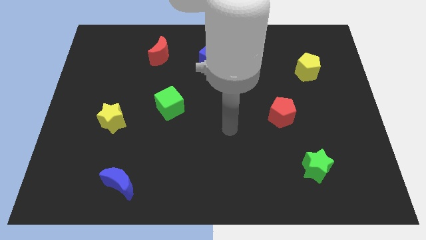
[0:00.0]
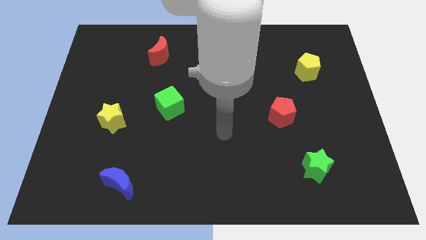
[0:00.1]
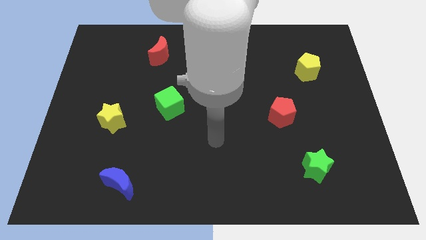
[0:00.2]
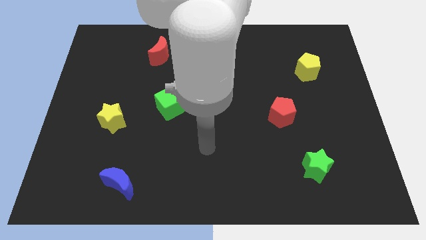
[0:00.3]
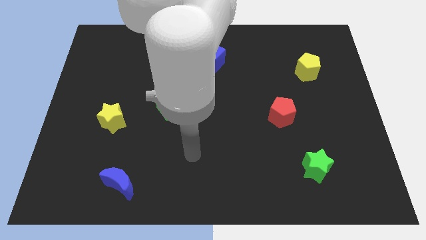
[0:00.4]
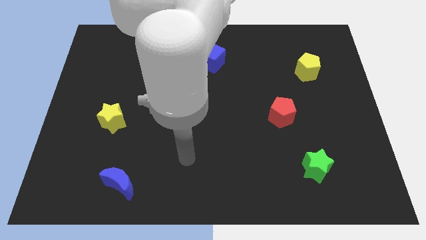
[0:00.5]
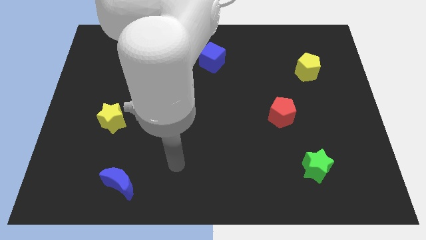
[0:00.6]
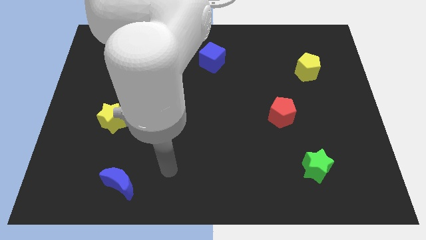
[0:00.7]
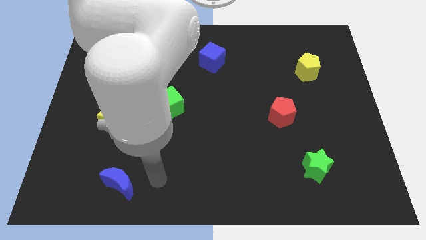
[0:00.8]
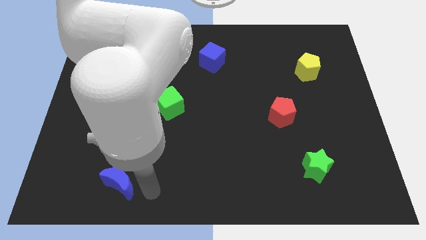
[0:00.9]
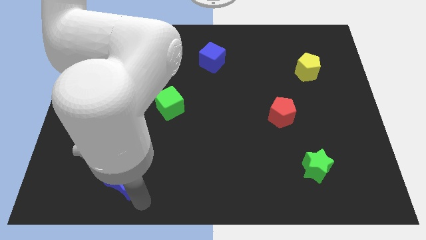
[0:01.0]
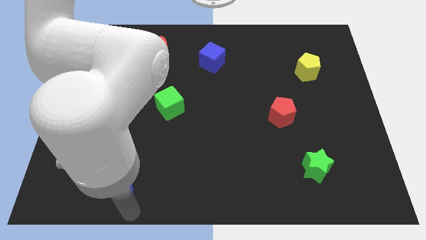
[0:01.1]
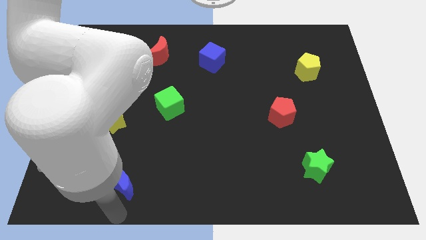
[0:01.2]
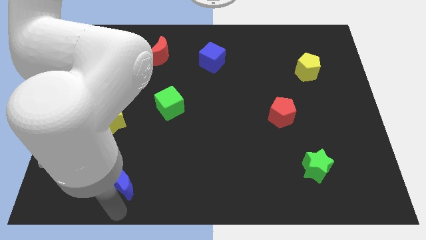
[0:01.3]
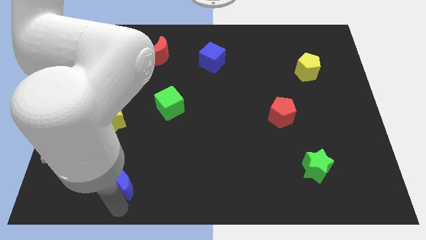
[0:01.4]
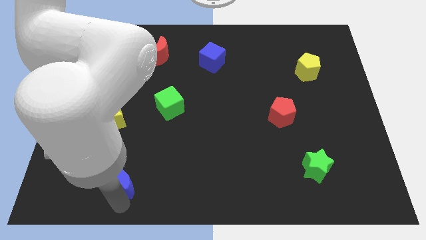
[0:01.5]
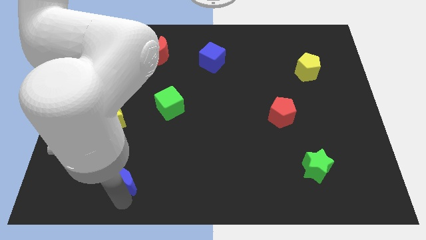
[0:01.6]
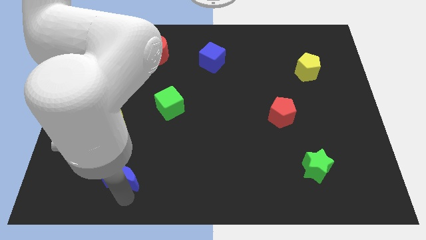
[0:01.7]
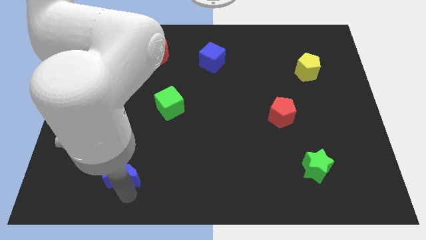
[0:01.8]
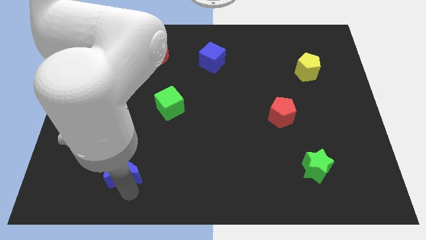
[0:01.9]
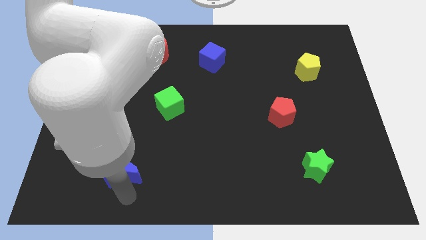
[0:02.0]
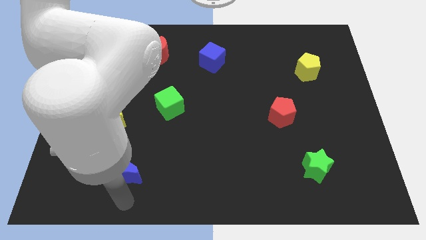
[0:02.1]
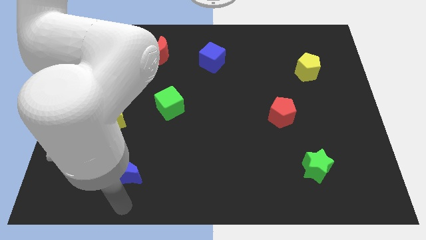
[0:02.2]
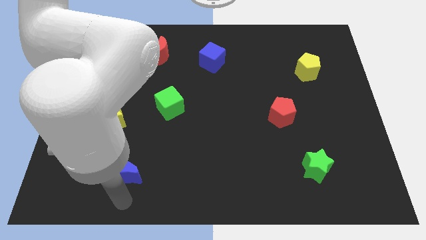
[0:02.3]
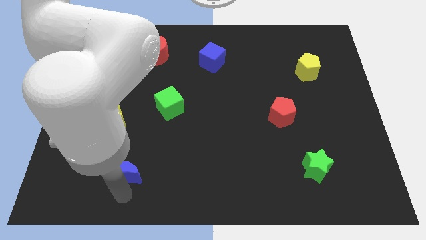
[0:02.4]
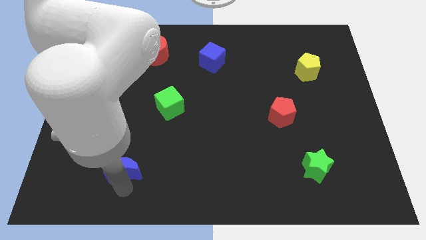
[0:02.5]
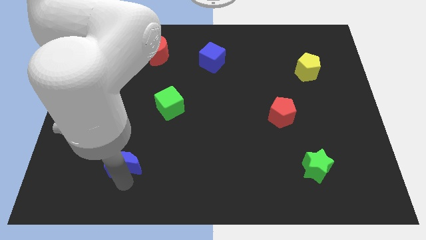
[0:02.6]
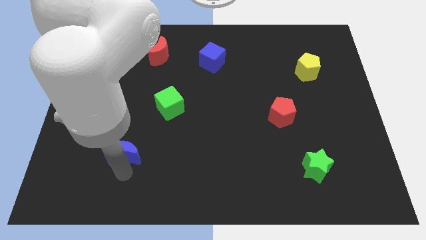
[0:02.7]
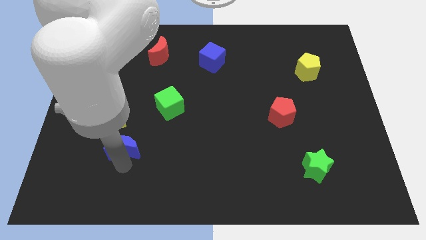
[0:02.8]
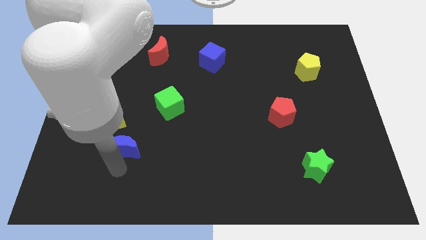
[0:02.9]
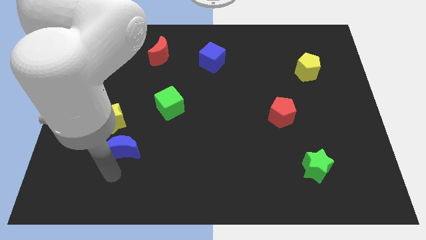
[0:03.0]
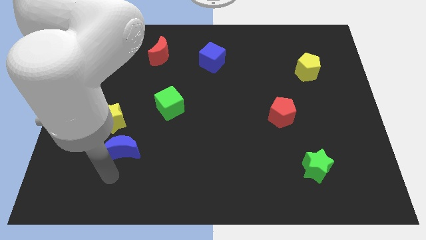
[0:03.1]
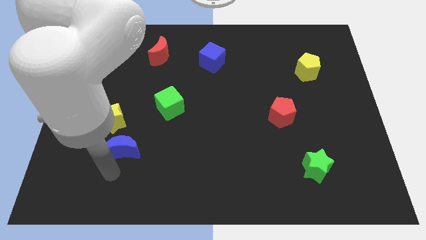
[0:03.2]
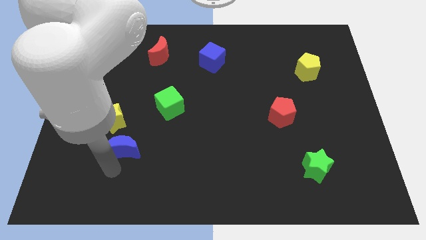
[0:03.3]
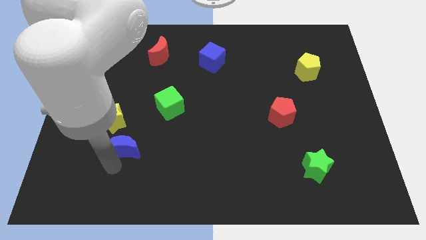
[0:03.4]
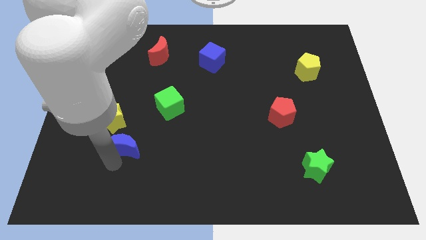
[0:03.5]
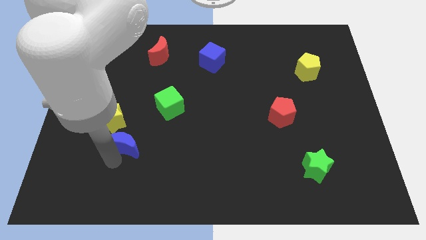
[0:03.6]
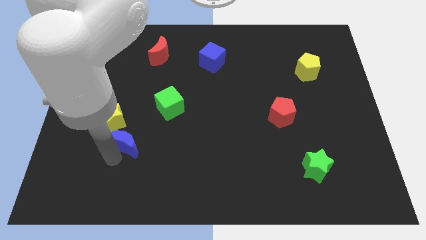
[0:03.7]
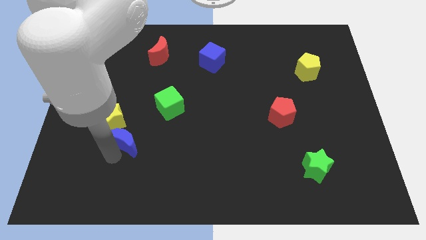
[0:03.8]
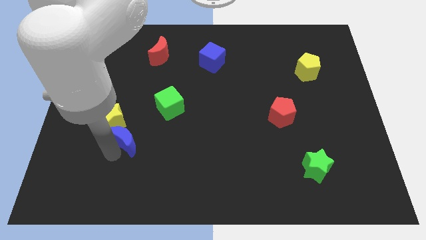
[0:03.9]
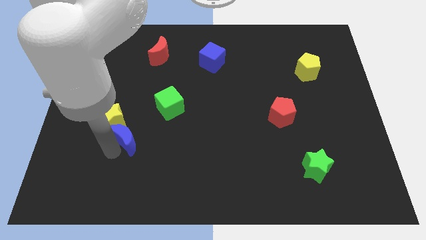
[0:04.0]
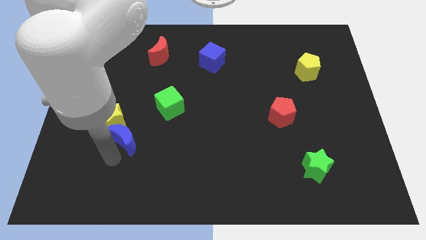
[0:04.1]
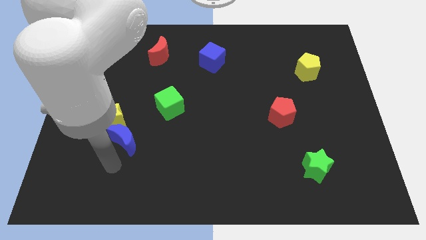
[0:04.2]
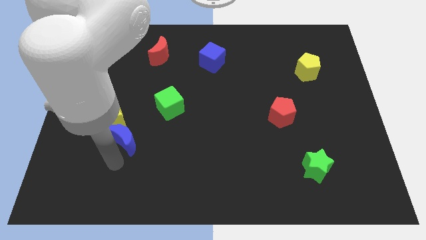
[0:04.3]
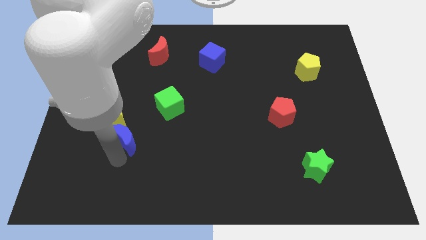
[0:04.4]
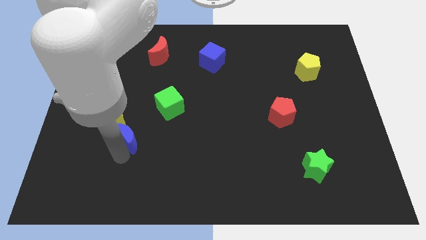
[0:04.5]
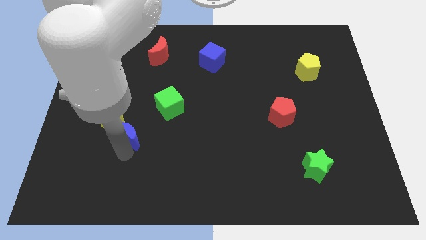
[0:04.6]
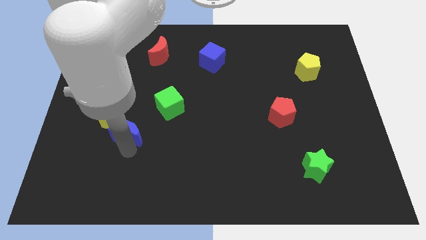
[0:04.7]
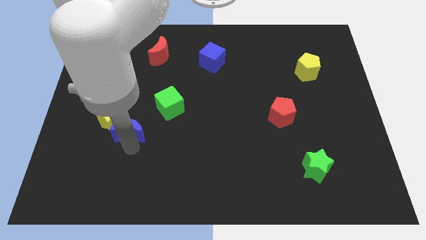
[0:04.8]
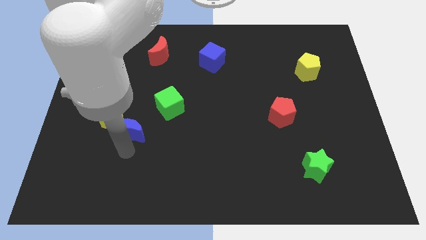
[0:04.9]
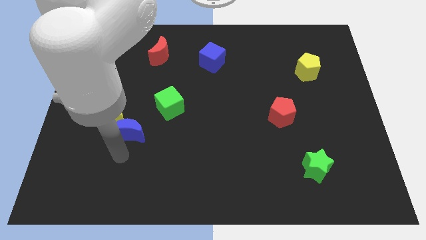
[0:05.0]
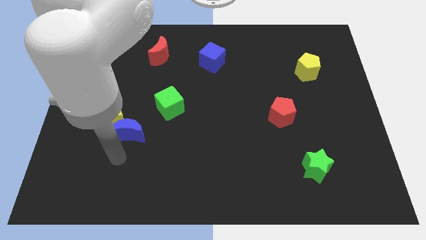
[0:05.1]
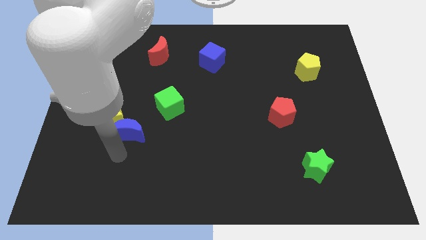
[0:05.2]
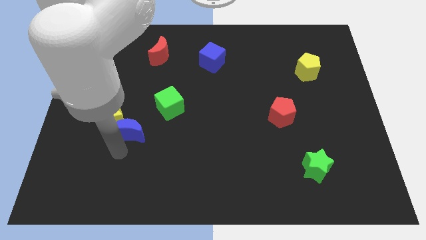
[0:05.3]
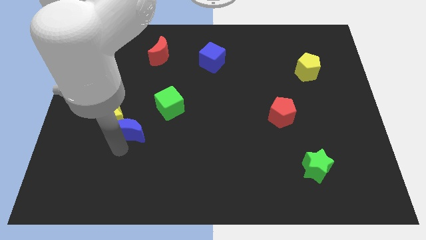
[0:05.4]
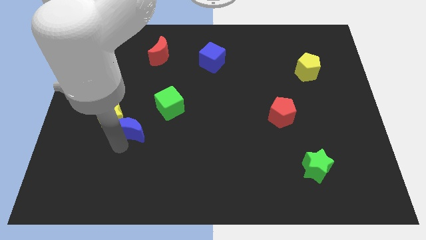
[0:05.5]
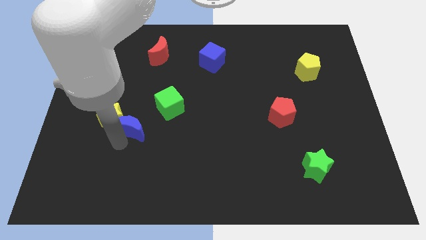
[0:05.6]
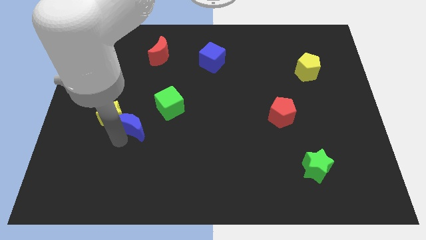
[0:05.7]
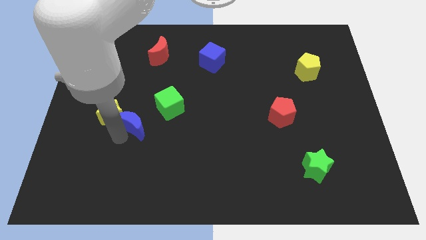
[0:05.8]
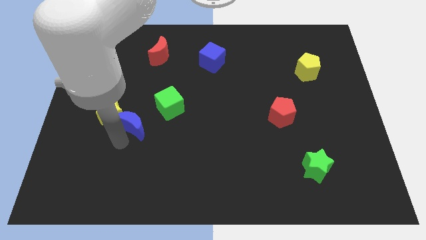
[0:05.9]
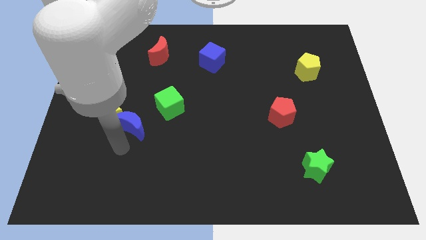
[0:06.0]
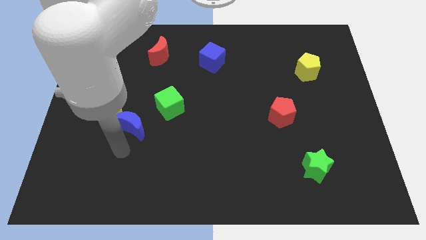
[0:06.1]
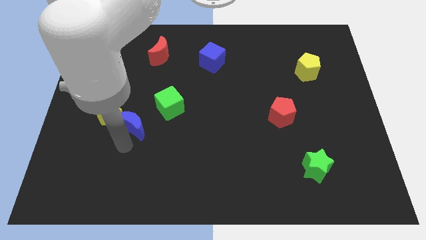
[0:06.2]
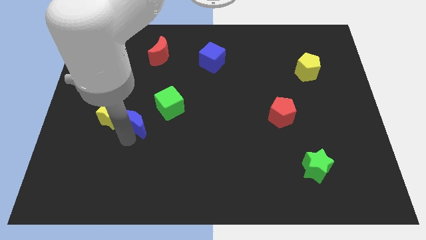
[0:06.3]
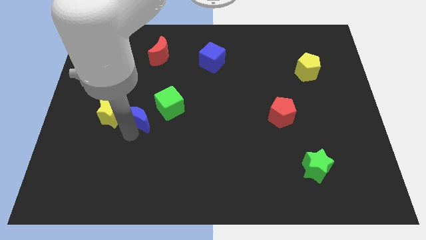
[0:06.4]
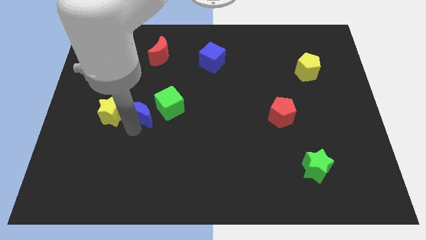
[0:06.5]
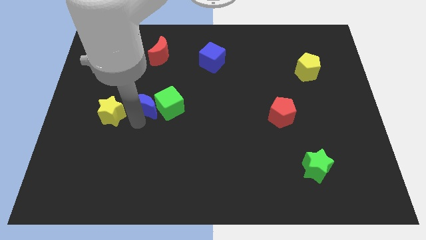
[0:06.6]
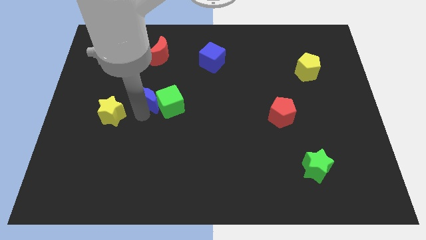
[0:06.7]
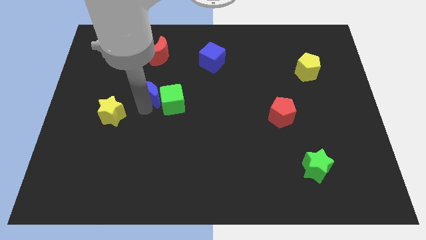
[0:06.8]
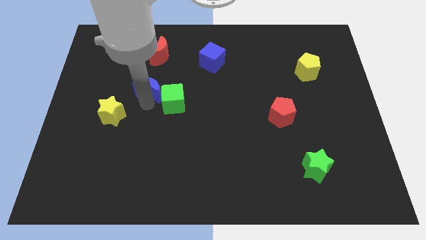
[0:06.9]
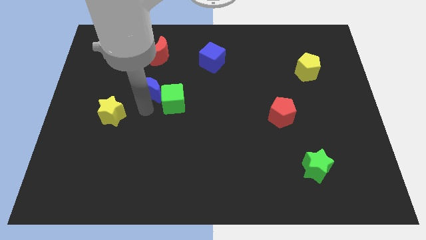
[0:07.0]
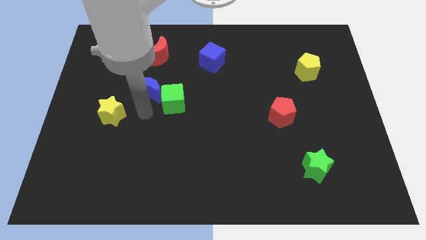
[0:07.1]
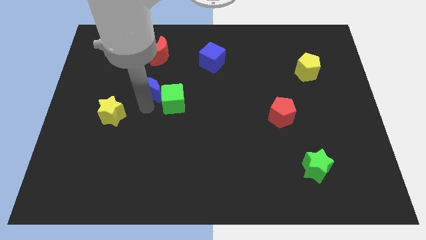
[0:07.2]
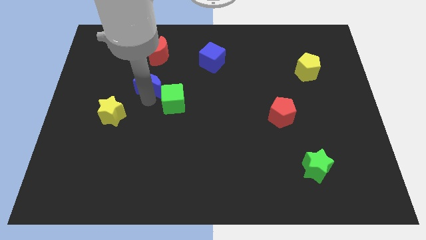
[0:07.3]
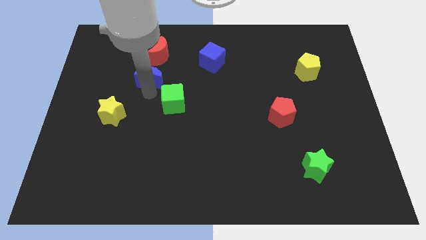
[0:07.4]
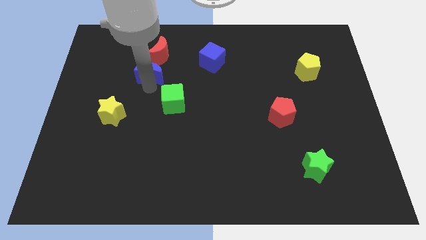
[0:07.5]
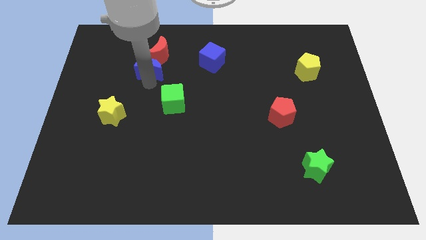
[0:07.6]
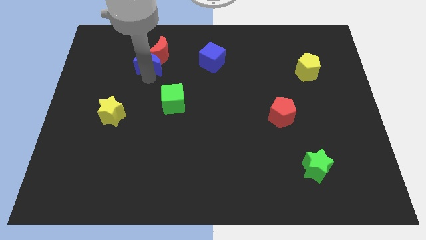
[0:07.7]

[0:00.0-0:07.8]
push the blue moon next to the red moon
